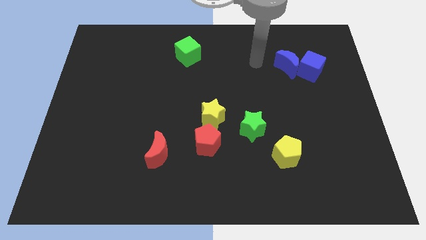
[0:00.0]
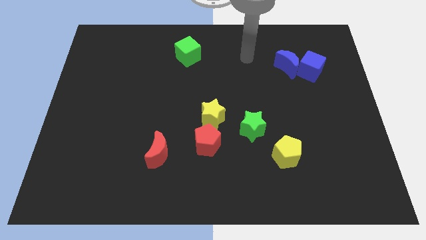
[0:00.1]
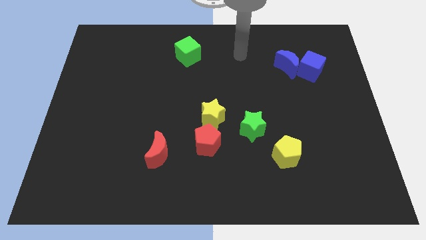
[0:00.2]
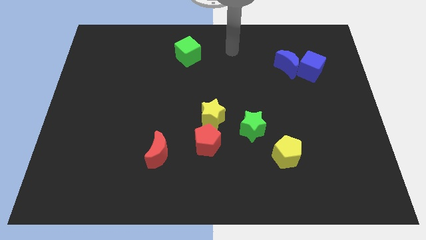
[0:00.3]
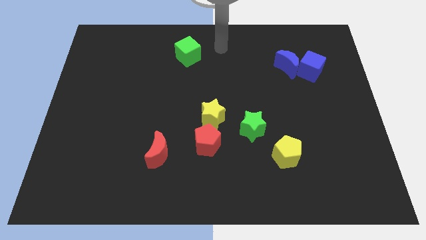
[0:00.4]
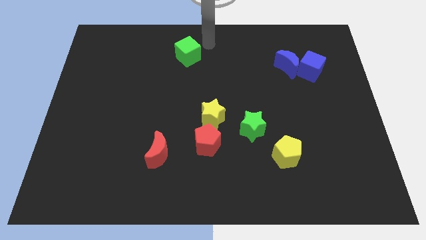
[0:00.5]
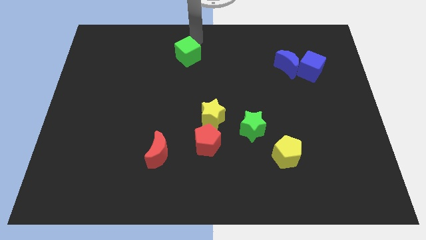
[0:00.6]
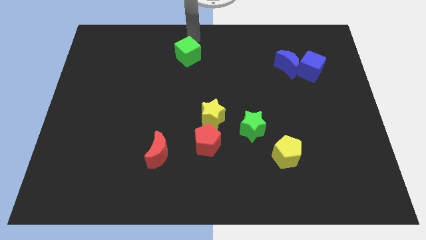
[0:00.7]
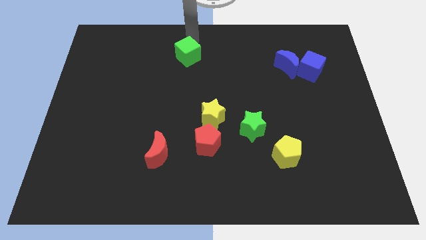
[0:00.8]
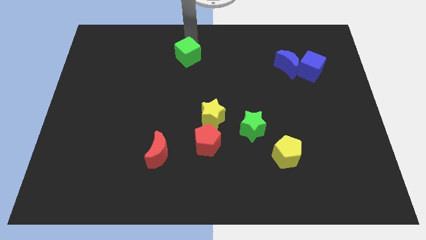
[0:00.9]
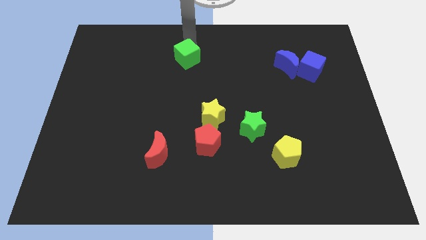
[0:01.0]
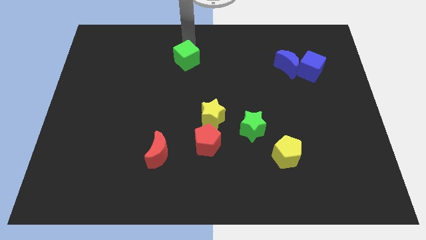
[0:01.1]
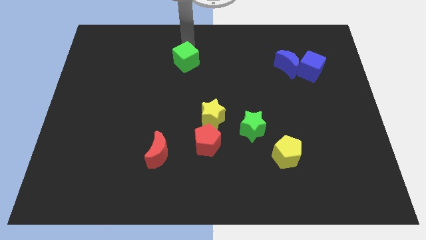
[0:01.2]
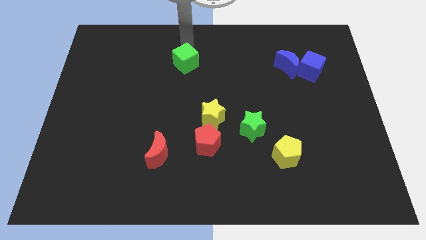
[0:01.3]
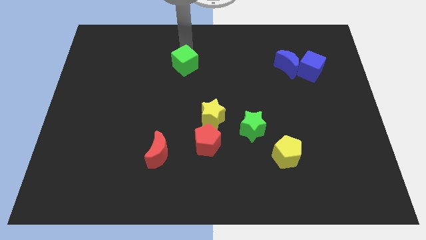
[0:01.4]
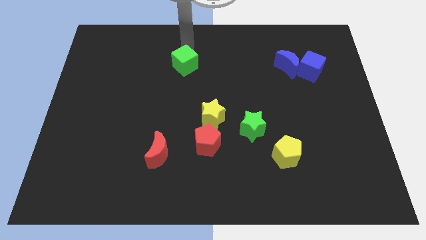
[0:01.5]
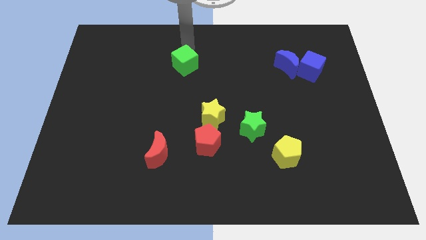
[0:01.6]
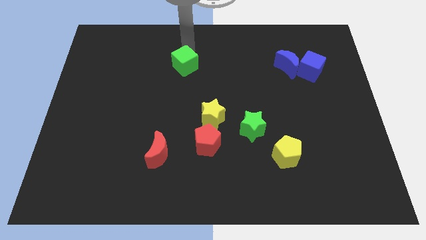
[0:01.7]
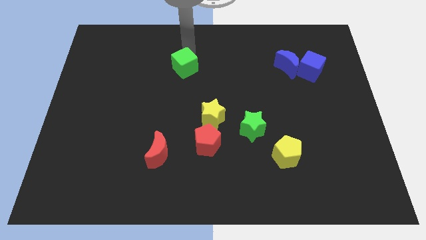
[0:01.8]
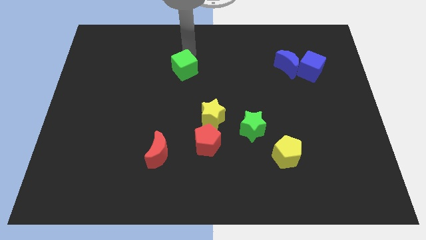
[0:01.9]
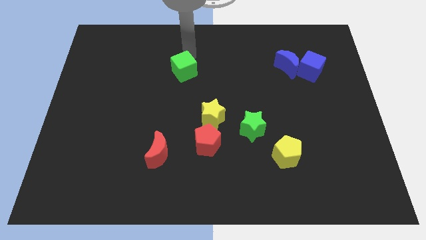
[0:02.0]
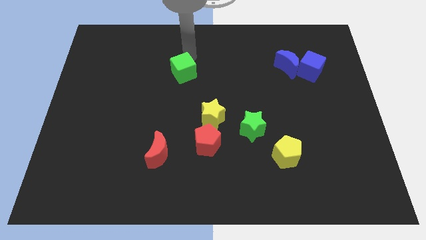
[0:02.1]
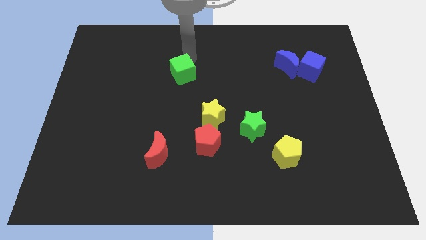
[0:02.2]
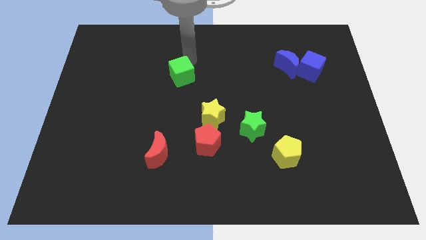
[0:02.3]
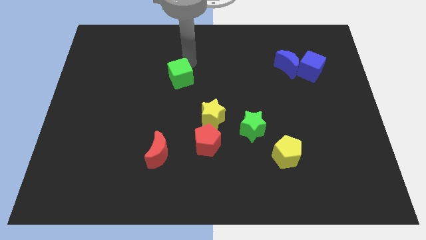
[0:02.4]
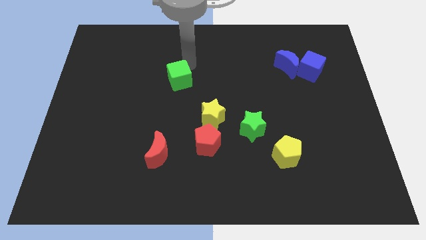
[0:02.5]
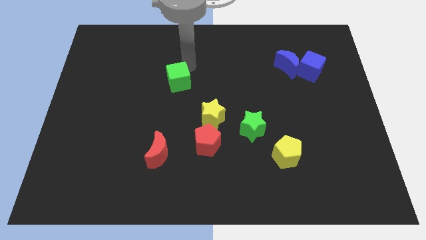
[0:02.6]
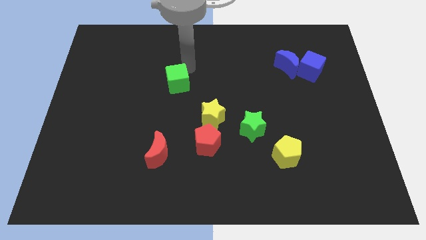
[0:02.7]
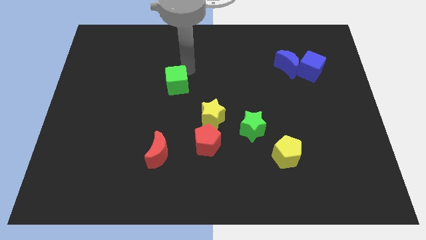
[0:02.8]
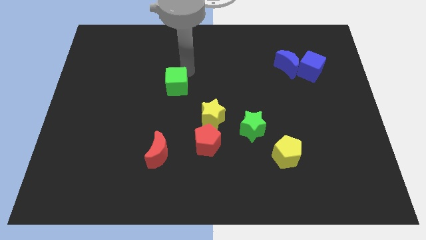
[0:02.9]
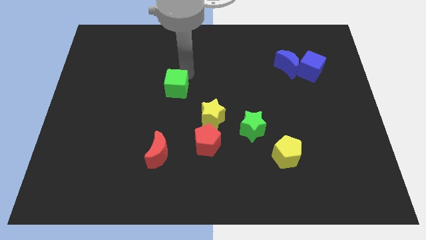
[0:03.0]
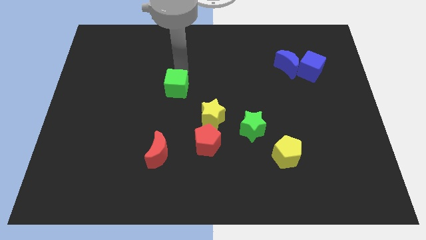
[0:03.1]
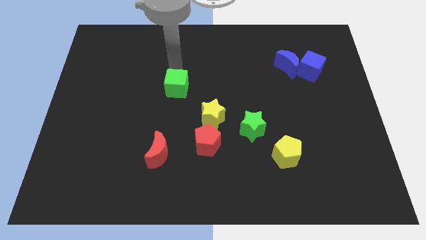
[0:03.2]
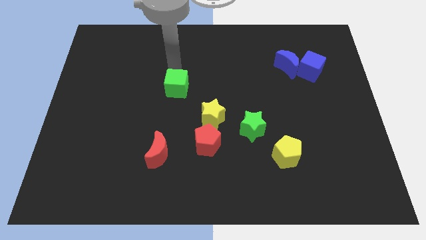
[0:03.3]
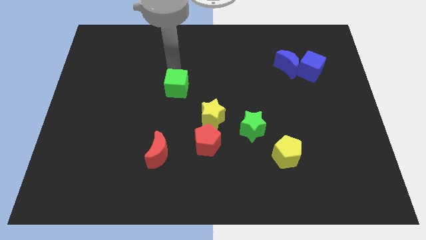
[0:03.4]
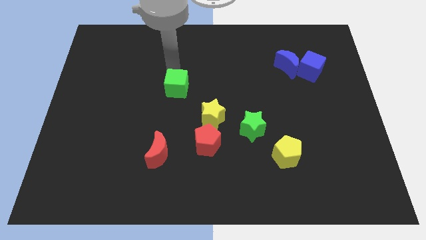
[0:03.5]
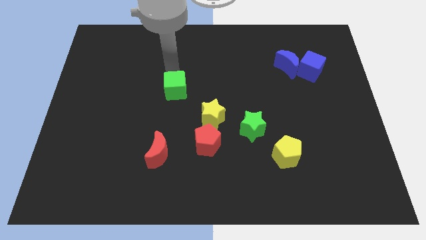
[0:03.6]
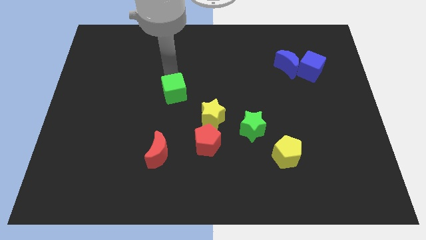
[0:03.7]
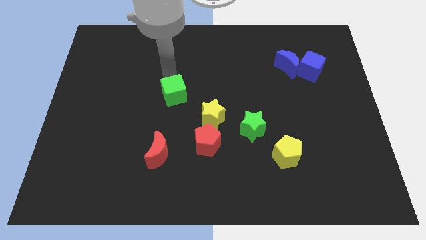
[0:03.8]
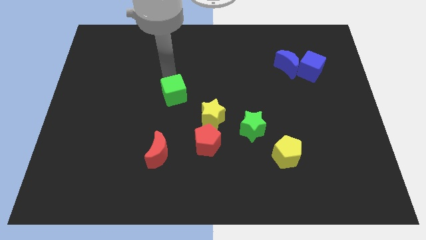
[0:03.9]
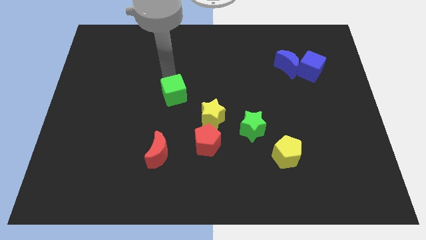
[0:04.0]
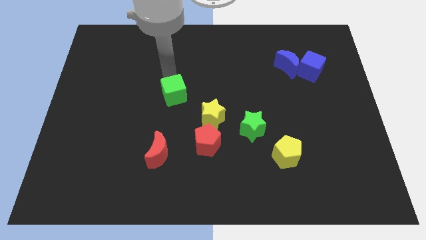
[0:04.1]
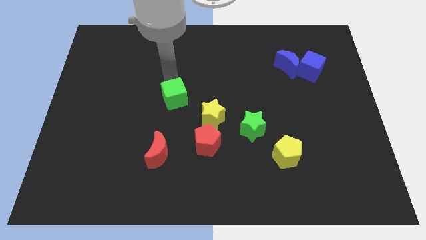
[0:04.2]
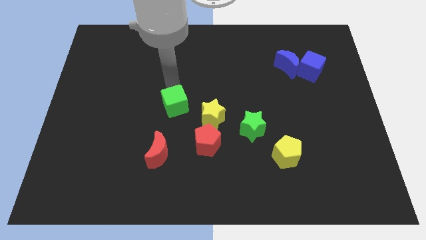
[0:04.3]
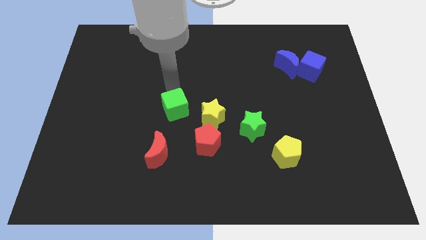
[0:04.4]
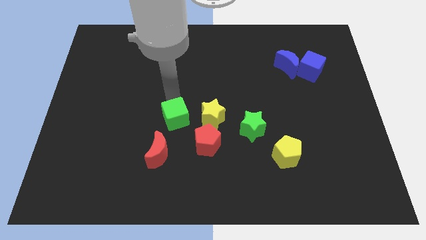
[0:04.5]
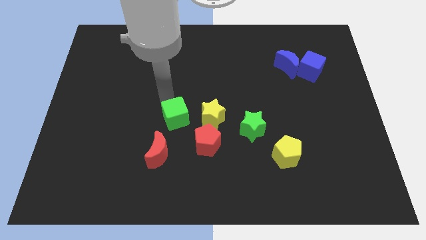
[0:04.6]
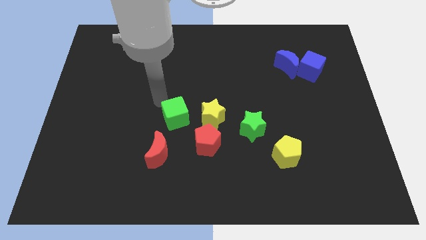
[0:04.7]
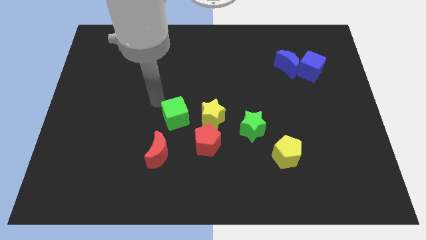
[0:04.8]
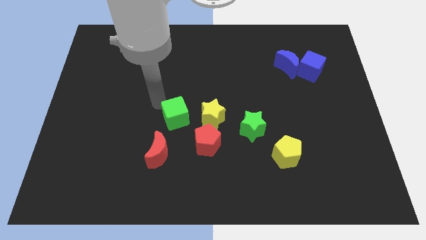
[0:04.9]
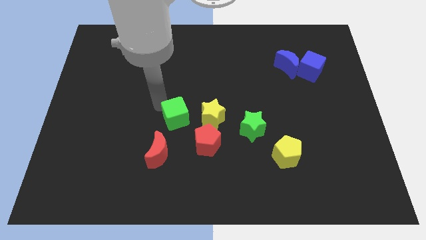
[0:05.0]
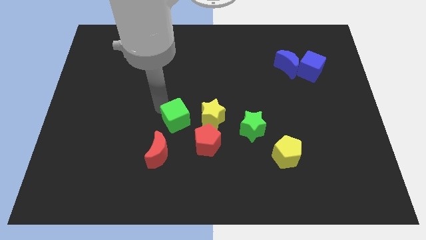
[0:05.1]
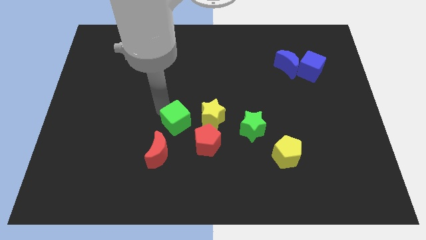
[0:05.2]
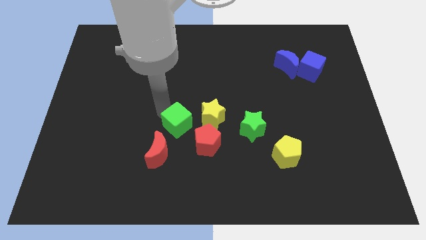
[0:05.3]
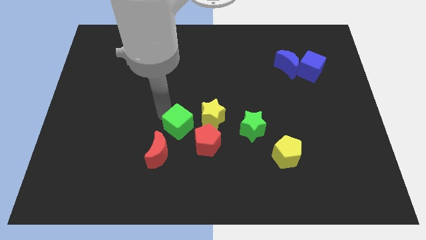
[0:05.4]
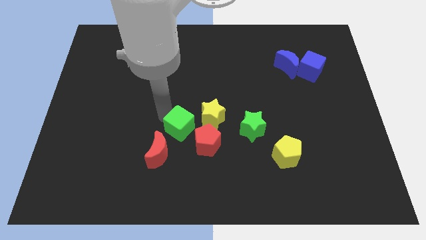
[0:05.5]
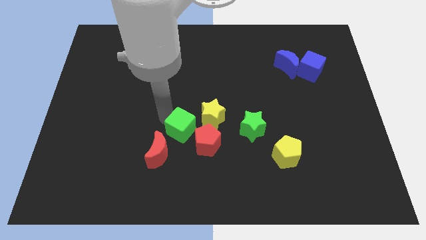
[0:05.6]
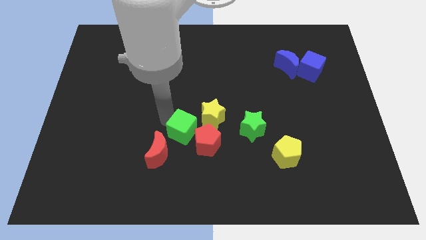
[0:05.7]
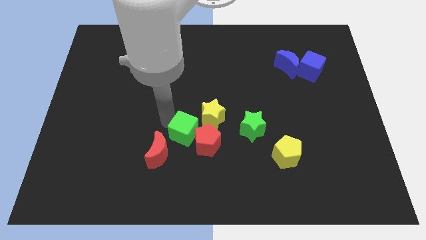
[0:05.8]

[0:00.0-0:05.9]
push the green cube close to the red pentagon
